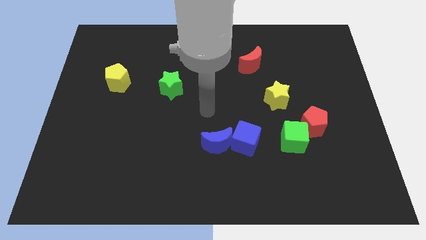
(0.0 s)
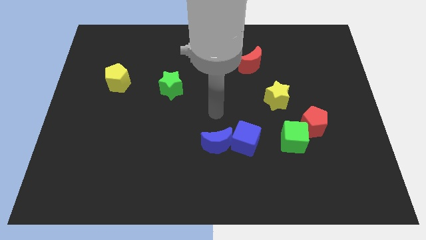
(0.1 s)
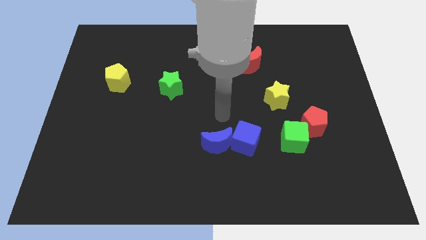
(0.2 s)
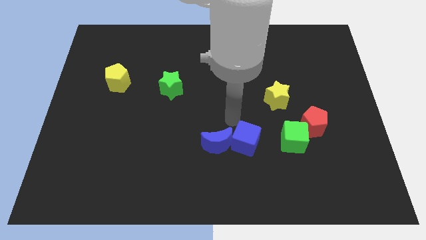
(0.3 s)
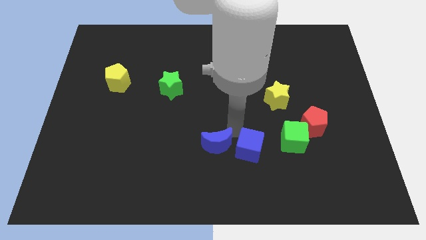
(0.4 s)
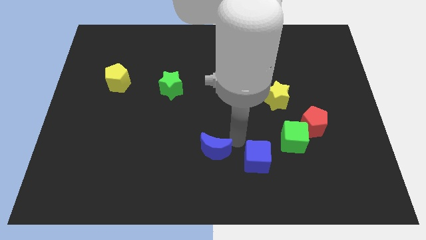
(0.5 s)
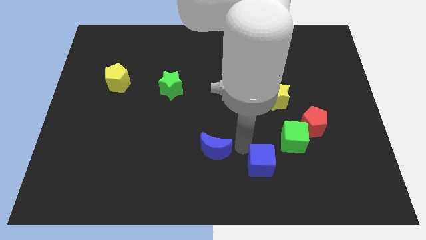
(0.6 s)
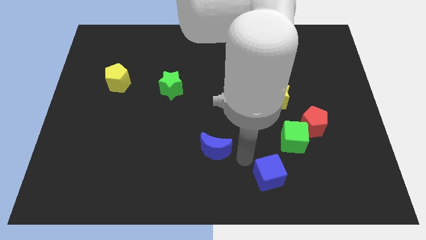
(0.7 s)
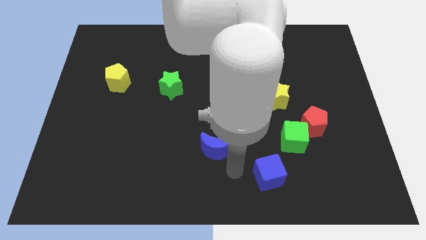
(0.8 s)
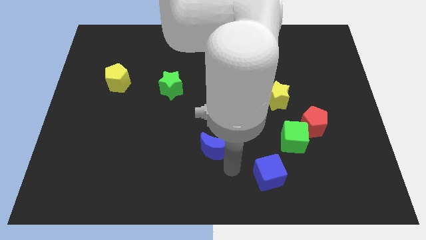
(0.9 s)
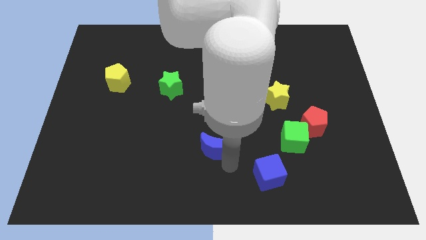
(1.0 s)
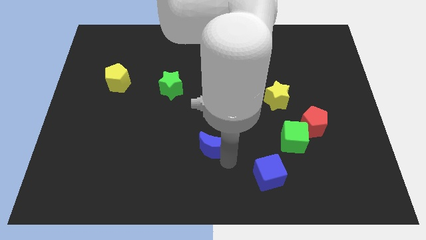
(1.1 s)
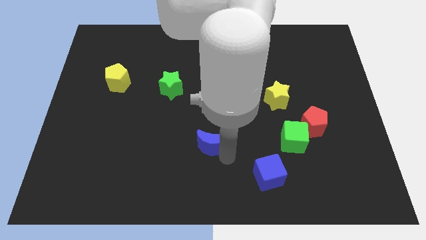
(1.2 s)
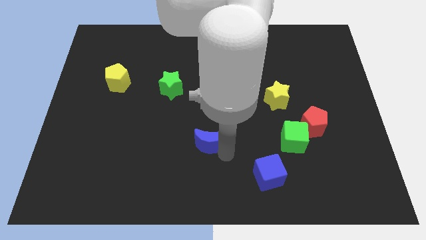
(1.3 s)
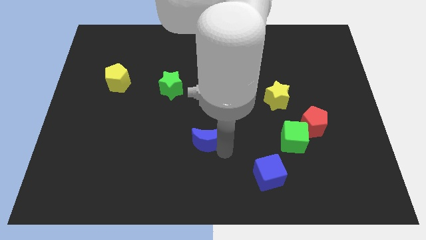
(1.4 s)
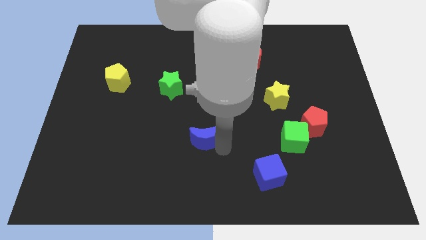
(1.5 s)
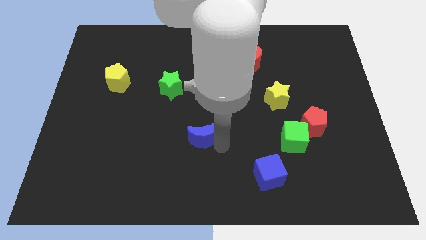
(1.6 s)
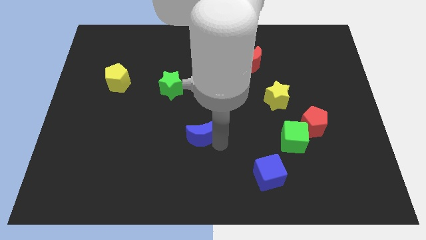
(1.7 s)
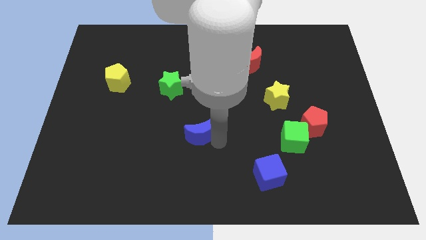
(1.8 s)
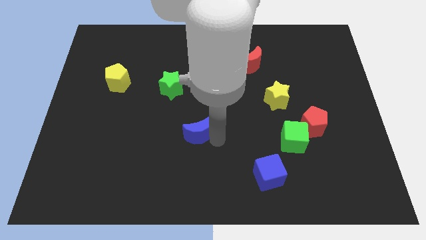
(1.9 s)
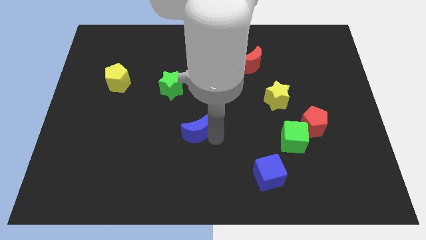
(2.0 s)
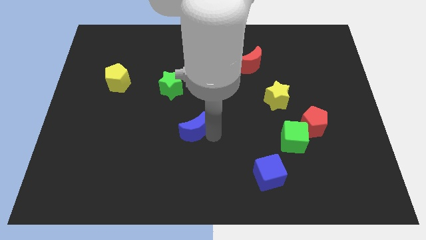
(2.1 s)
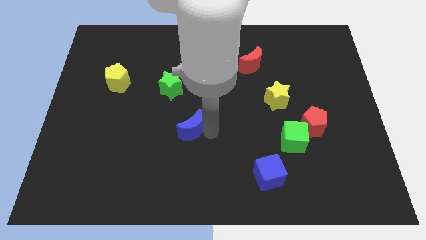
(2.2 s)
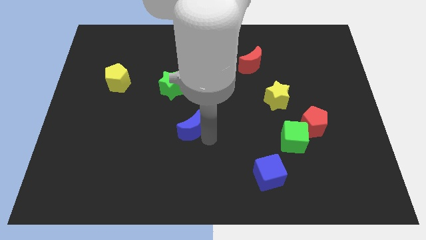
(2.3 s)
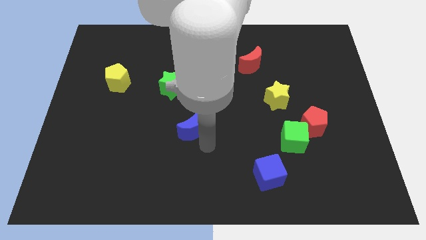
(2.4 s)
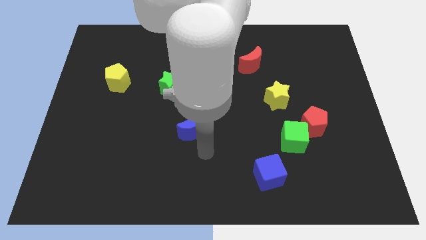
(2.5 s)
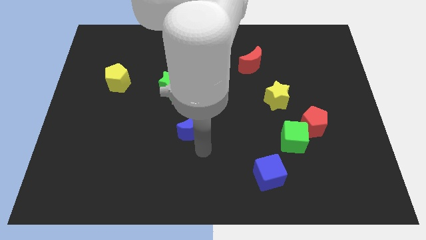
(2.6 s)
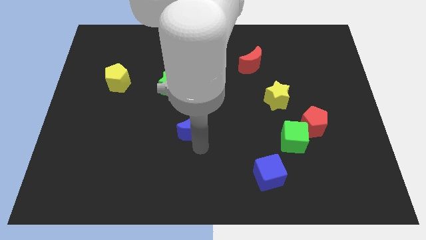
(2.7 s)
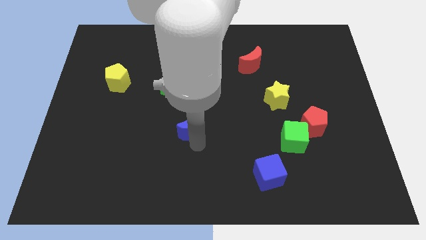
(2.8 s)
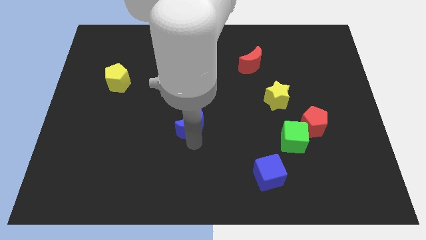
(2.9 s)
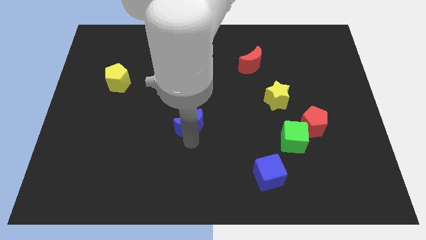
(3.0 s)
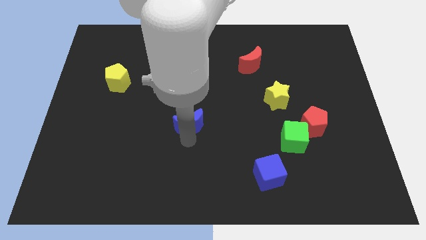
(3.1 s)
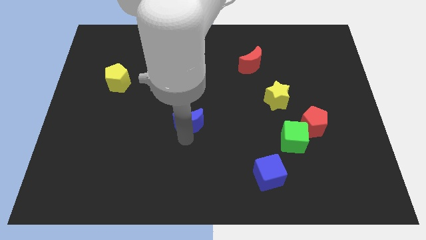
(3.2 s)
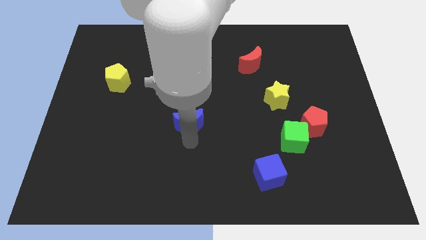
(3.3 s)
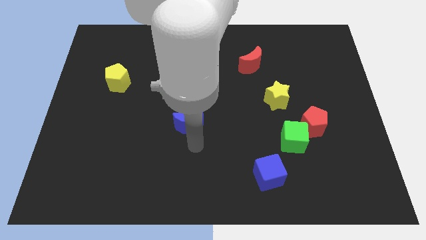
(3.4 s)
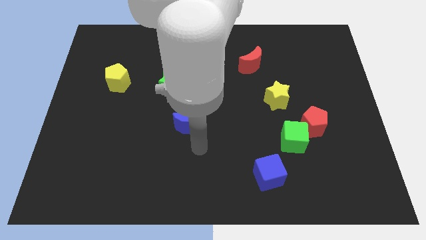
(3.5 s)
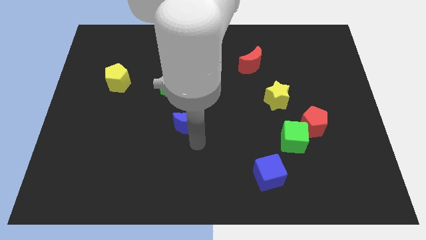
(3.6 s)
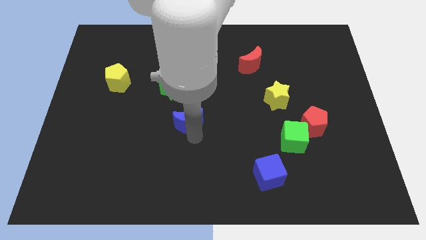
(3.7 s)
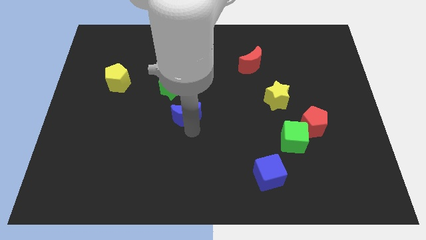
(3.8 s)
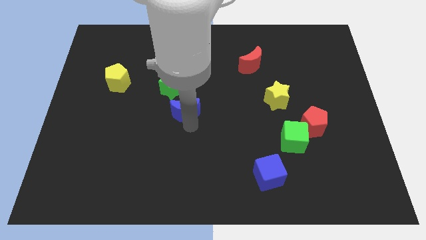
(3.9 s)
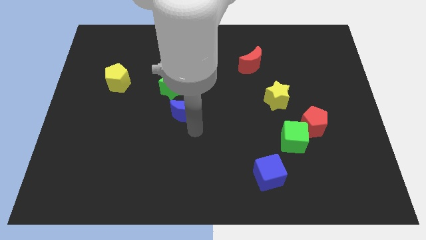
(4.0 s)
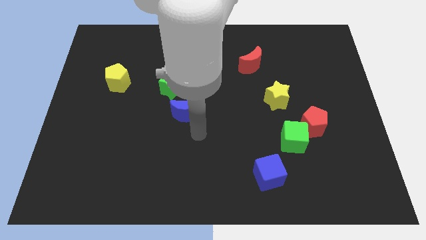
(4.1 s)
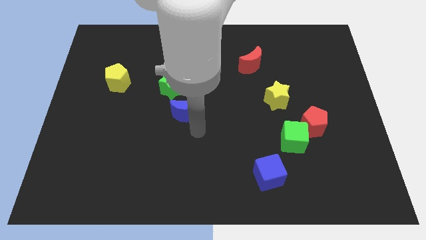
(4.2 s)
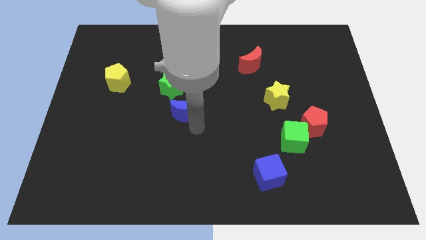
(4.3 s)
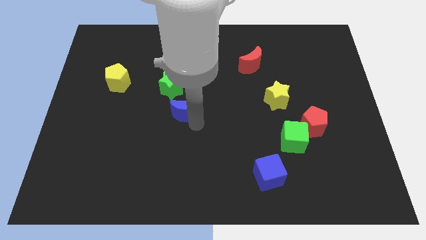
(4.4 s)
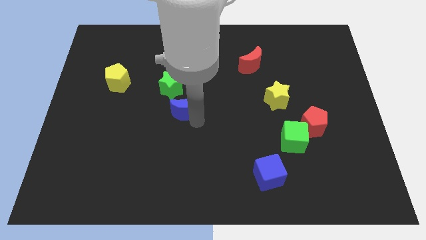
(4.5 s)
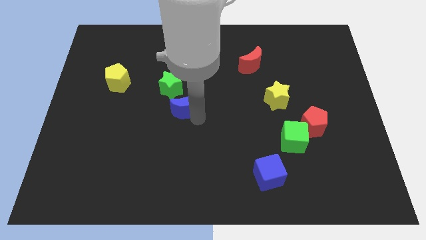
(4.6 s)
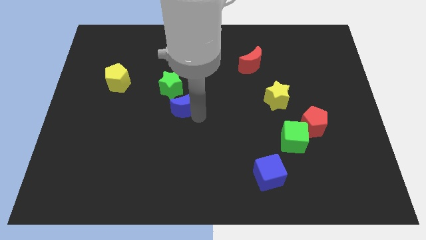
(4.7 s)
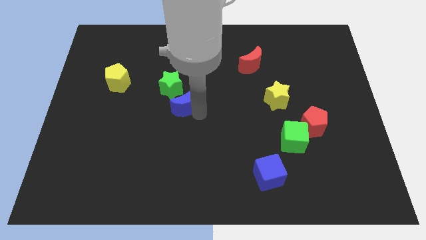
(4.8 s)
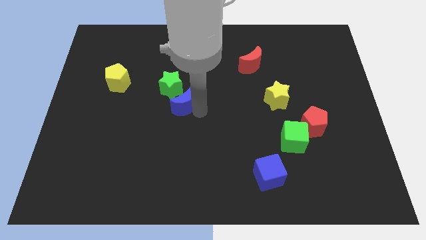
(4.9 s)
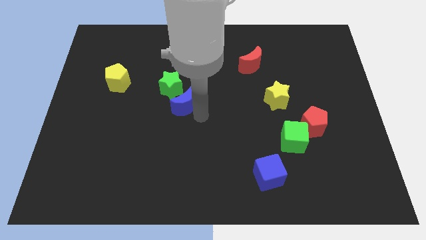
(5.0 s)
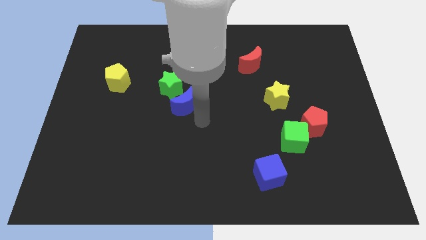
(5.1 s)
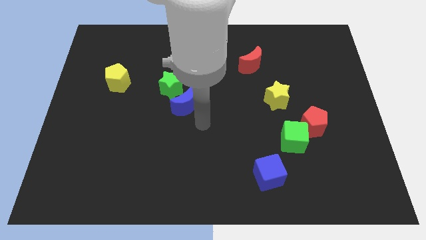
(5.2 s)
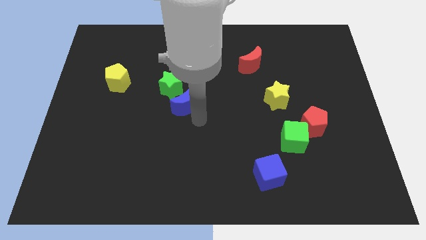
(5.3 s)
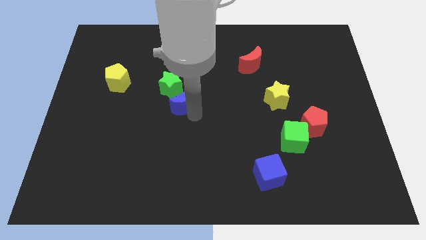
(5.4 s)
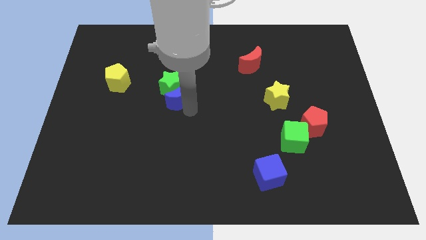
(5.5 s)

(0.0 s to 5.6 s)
push the blue moon to the green star

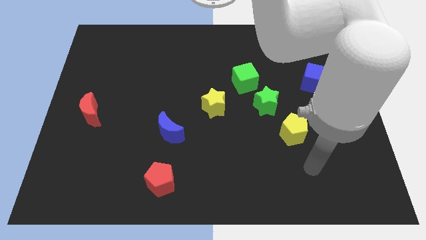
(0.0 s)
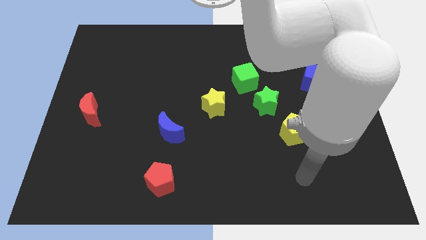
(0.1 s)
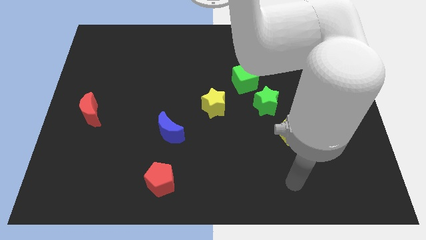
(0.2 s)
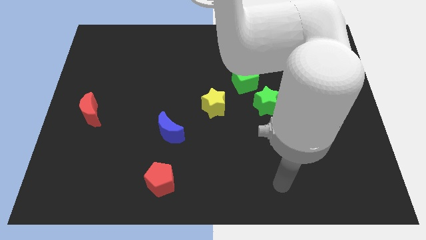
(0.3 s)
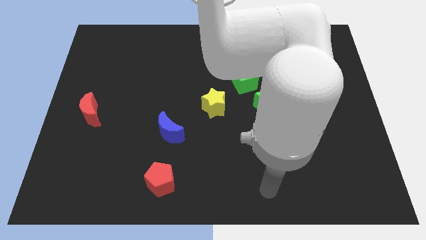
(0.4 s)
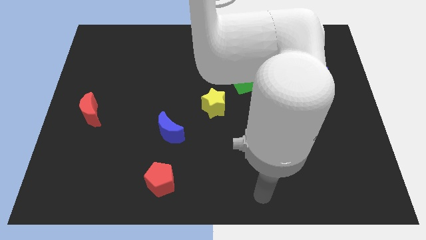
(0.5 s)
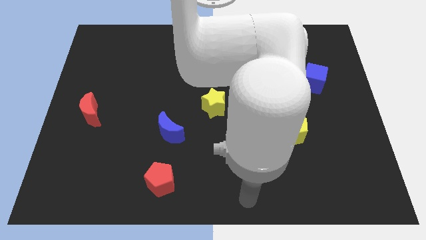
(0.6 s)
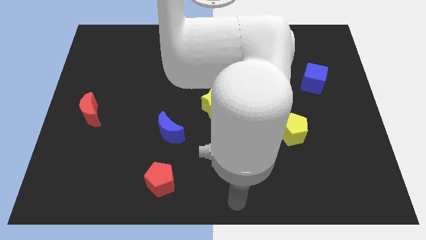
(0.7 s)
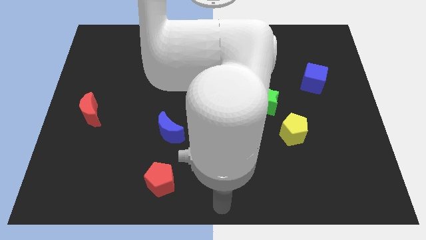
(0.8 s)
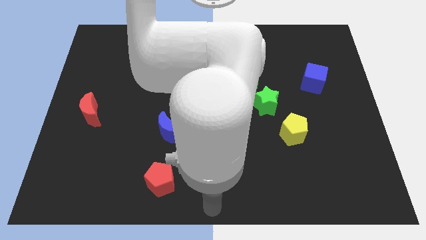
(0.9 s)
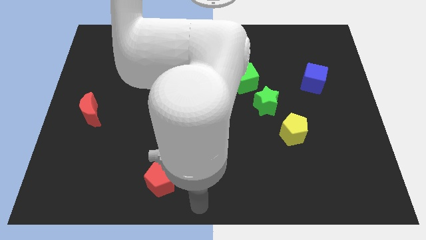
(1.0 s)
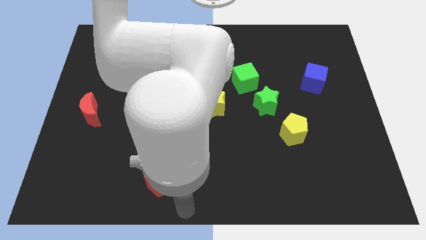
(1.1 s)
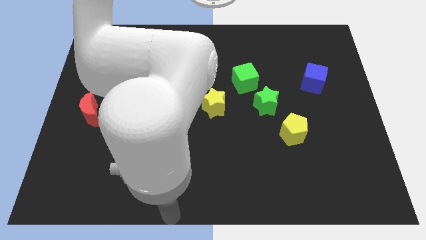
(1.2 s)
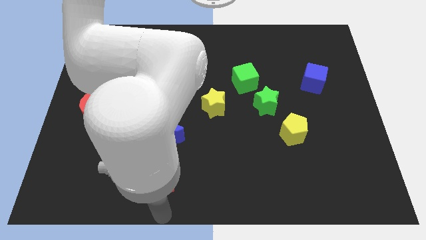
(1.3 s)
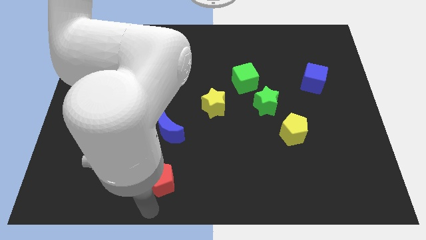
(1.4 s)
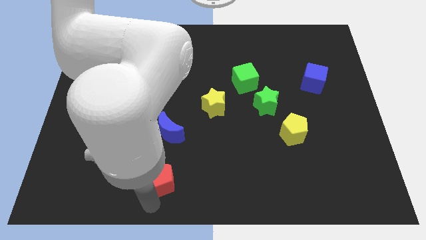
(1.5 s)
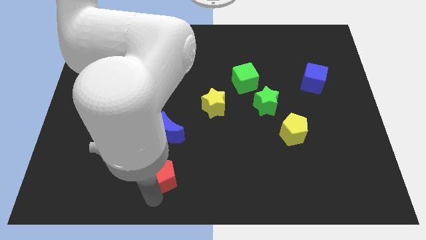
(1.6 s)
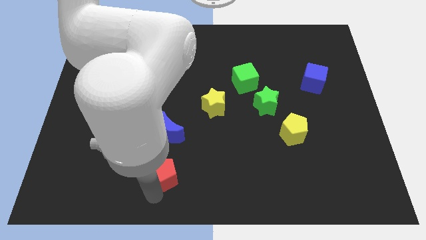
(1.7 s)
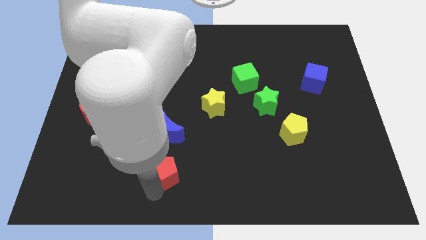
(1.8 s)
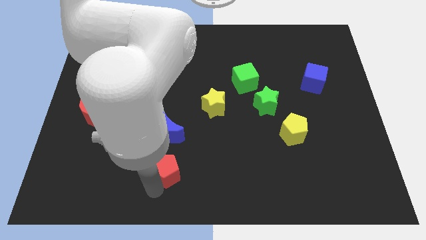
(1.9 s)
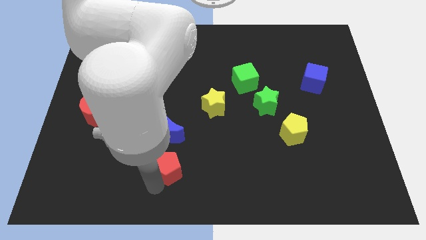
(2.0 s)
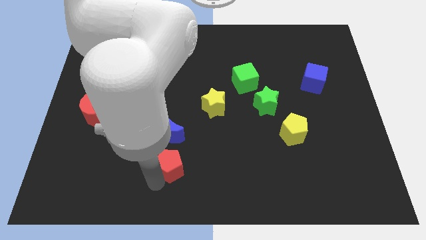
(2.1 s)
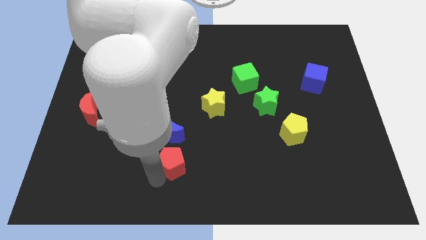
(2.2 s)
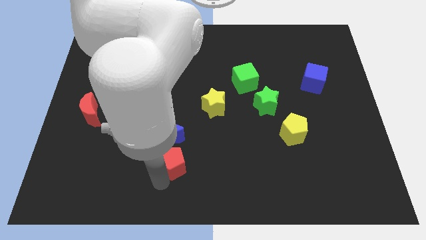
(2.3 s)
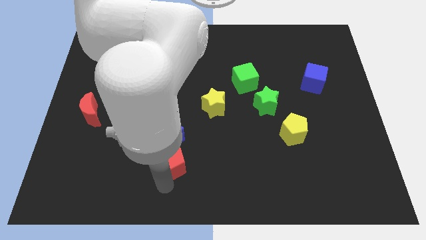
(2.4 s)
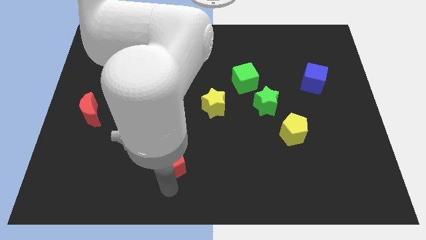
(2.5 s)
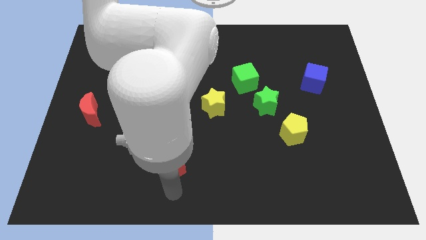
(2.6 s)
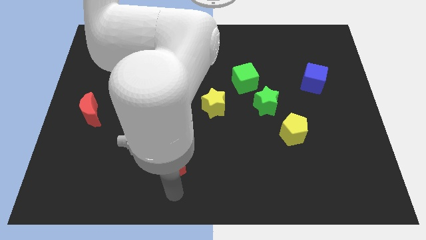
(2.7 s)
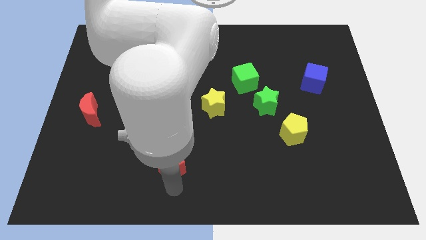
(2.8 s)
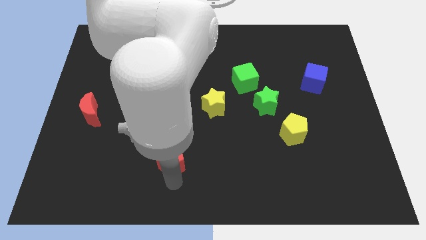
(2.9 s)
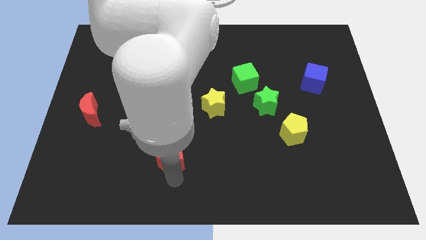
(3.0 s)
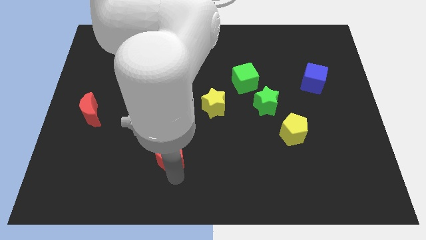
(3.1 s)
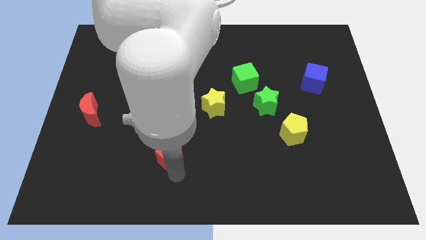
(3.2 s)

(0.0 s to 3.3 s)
slide the red pentagon towards the blue moon
